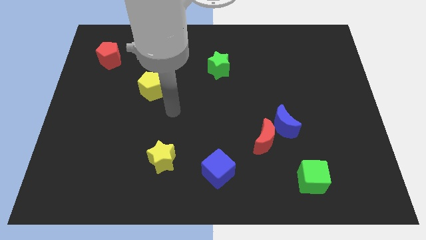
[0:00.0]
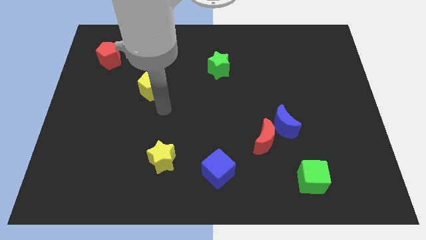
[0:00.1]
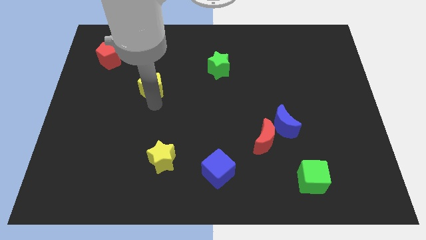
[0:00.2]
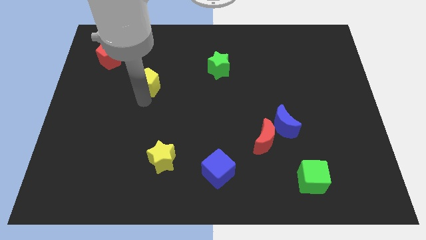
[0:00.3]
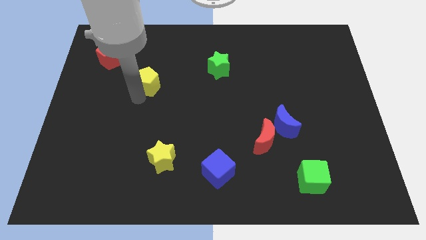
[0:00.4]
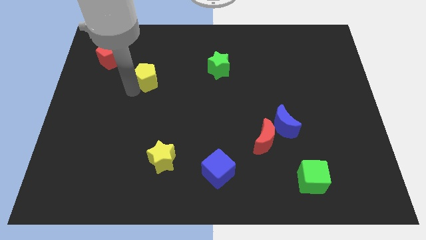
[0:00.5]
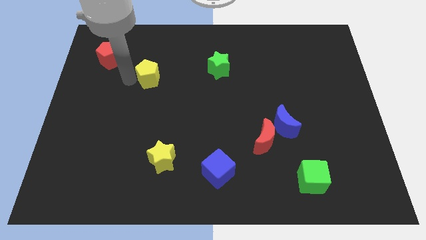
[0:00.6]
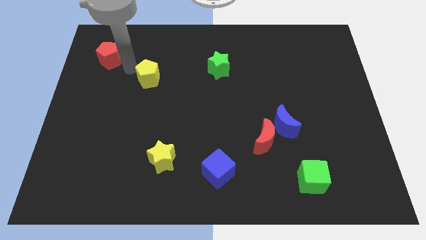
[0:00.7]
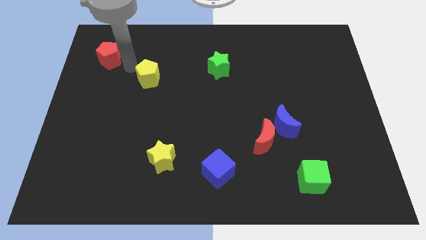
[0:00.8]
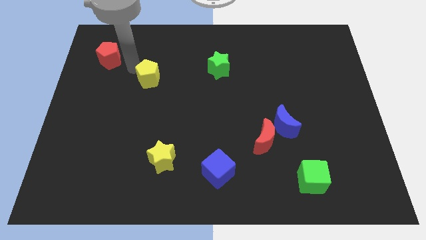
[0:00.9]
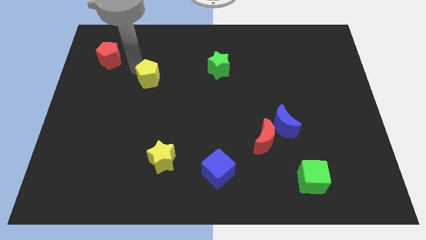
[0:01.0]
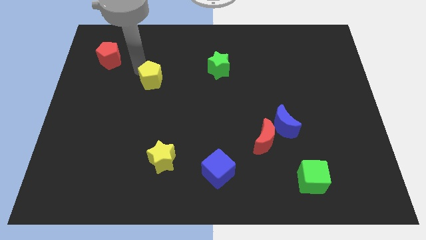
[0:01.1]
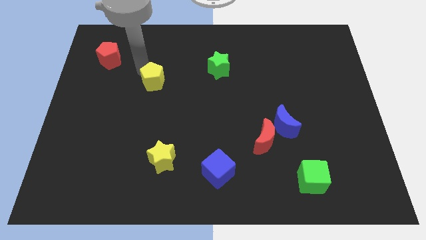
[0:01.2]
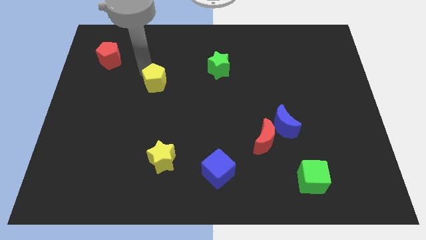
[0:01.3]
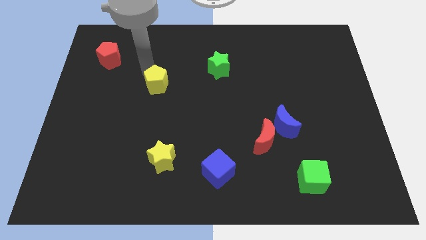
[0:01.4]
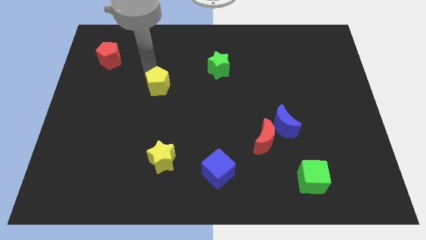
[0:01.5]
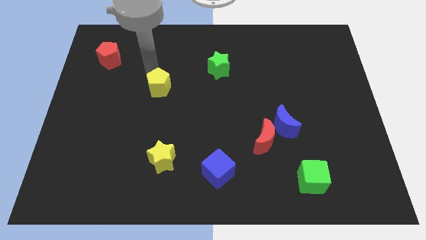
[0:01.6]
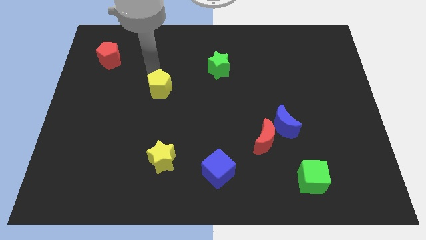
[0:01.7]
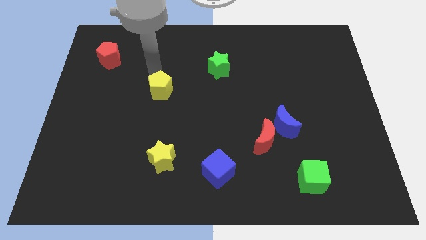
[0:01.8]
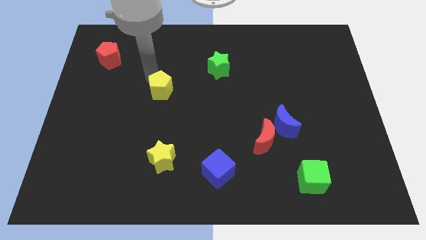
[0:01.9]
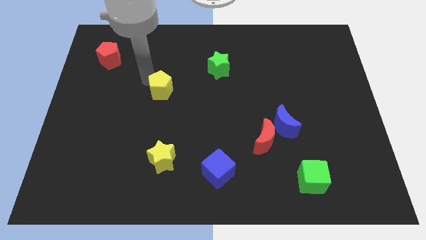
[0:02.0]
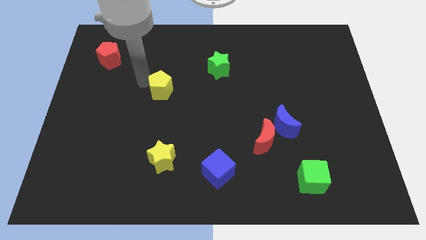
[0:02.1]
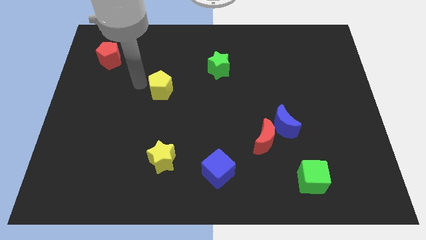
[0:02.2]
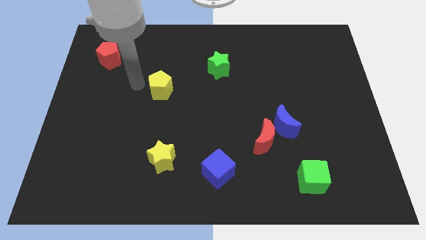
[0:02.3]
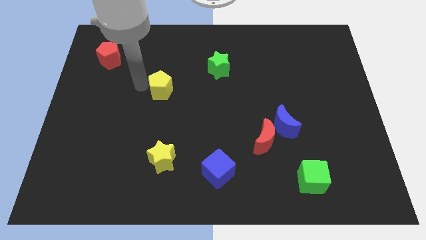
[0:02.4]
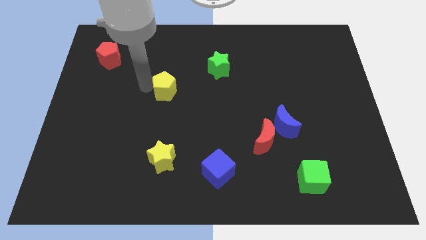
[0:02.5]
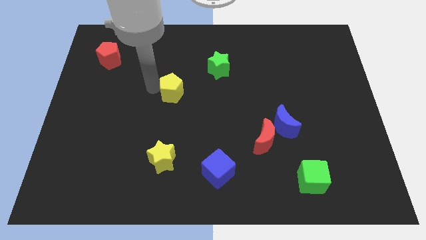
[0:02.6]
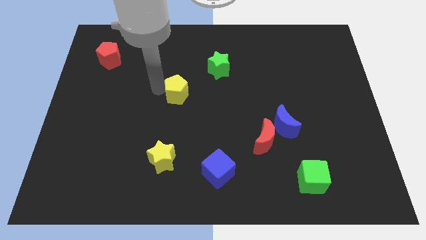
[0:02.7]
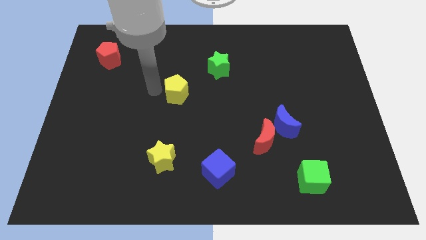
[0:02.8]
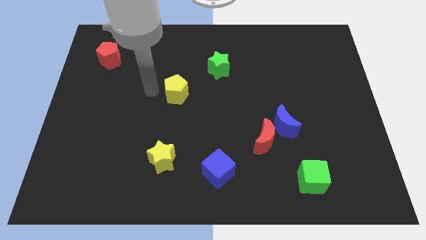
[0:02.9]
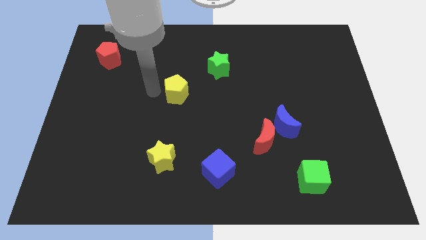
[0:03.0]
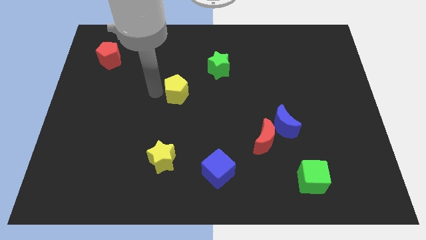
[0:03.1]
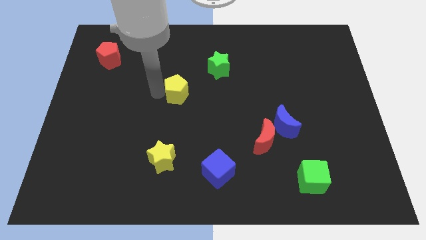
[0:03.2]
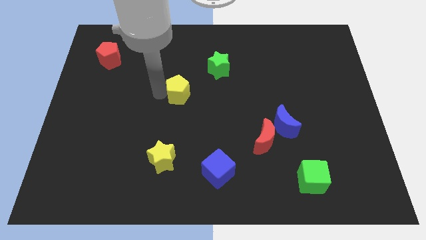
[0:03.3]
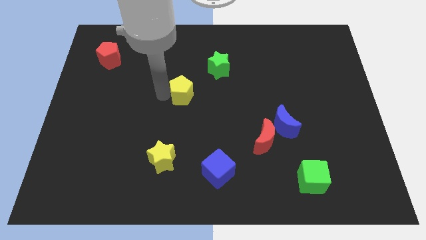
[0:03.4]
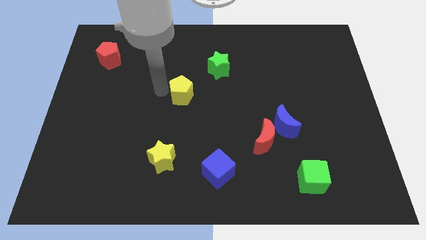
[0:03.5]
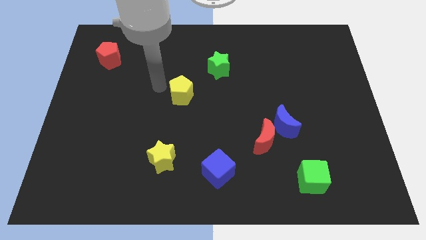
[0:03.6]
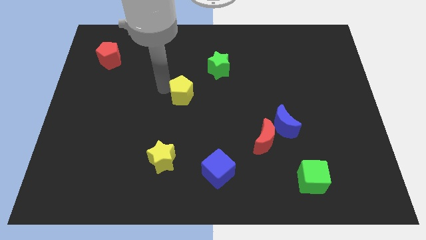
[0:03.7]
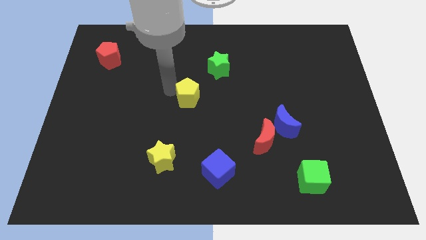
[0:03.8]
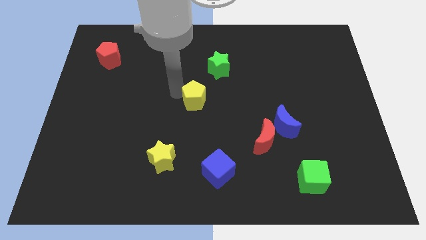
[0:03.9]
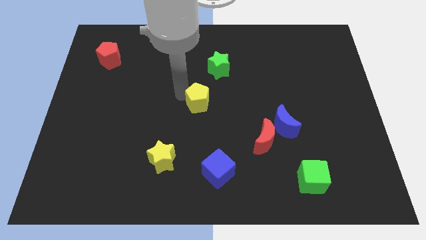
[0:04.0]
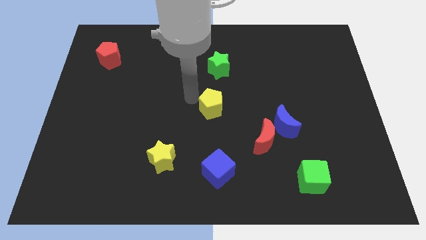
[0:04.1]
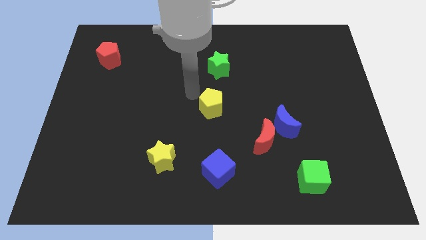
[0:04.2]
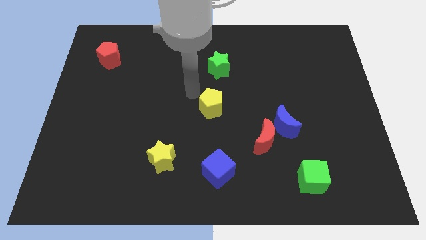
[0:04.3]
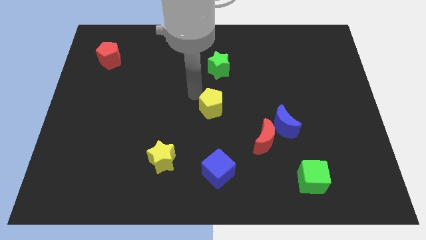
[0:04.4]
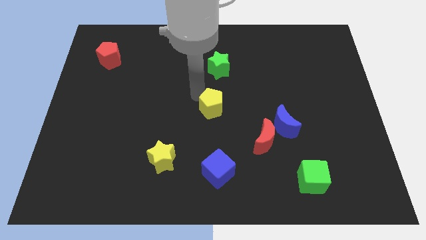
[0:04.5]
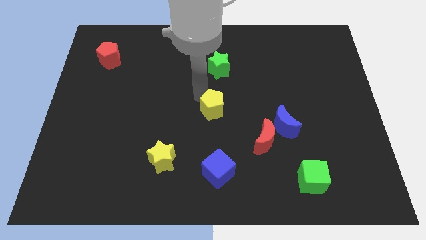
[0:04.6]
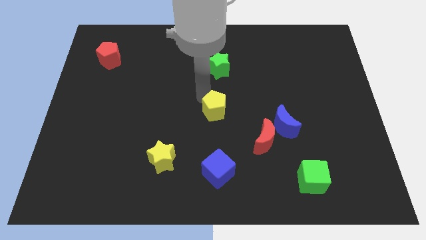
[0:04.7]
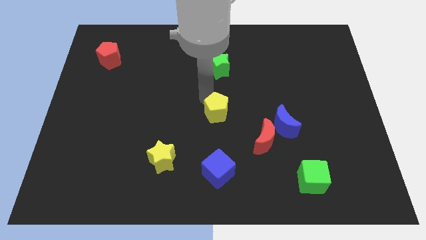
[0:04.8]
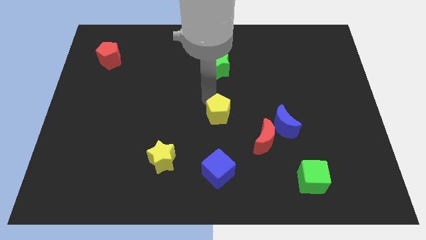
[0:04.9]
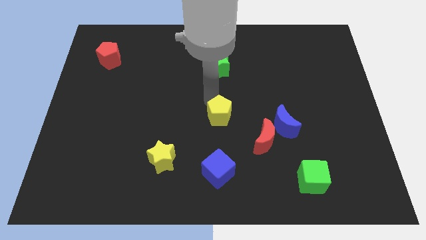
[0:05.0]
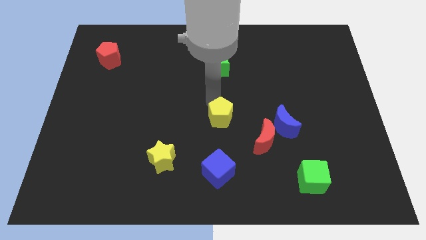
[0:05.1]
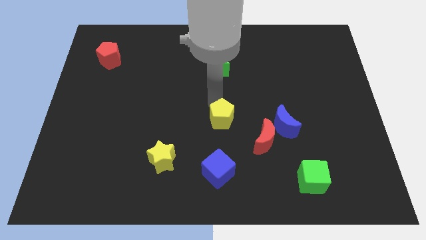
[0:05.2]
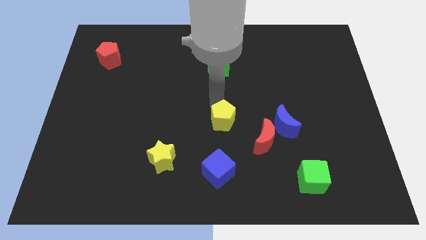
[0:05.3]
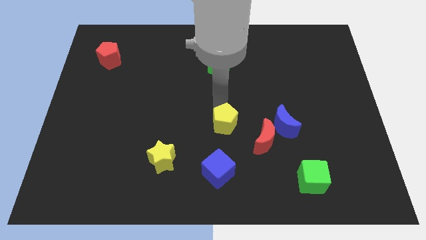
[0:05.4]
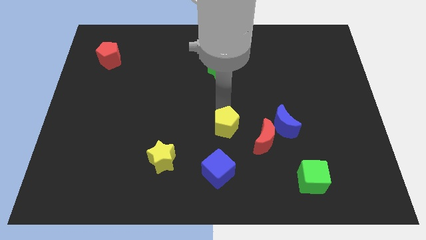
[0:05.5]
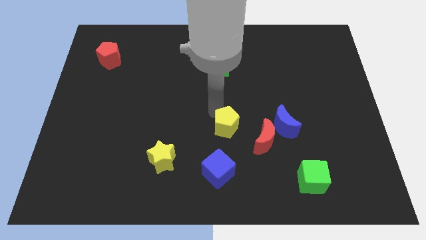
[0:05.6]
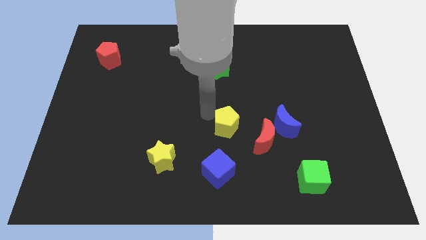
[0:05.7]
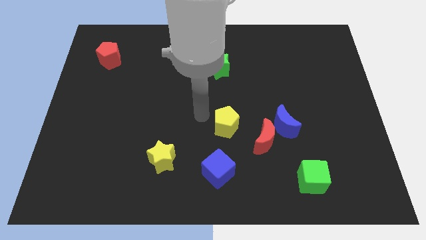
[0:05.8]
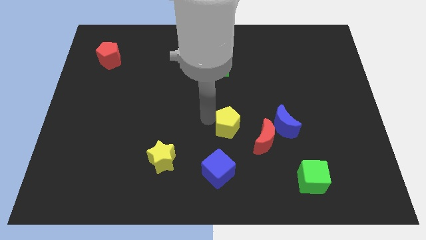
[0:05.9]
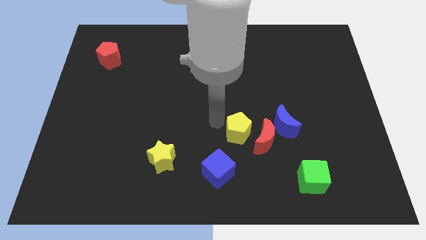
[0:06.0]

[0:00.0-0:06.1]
put the yellow pentagon next to the red moon

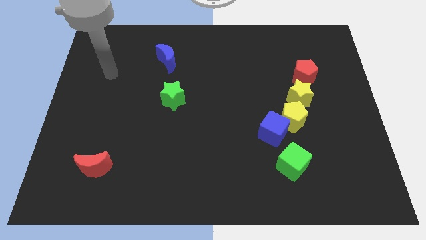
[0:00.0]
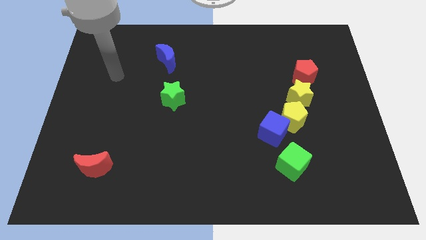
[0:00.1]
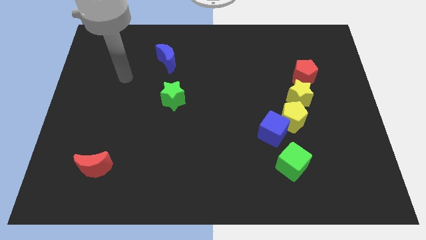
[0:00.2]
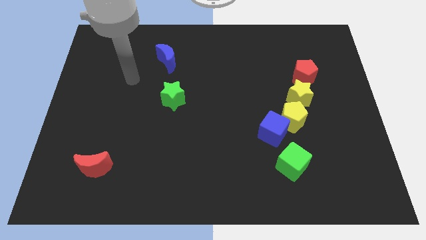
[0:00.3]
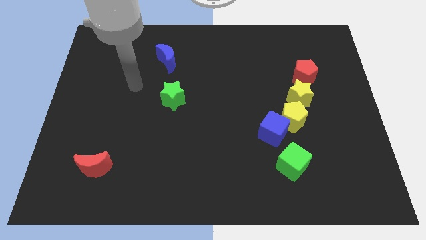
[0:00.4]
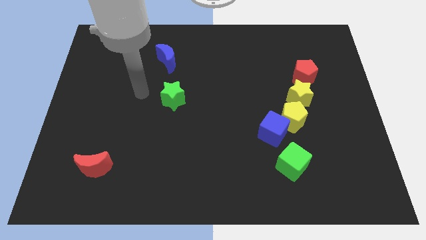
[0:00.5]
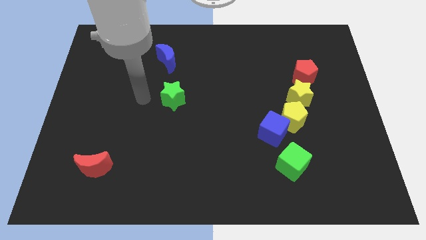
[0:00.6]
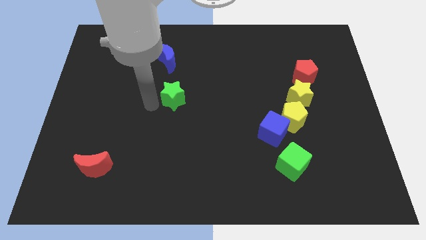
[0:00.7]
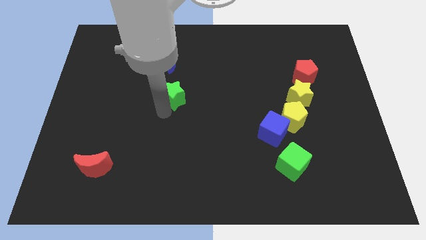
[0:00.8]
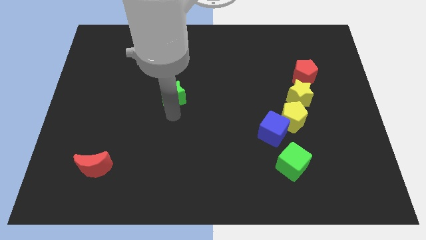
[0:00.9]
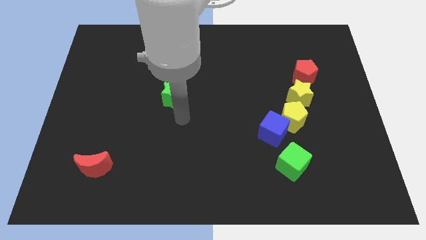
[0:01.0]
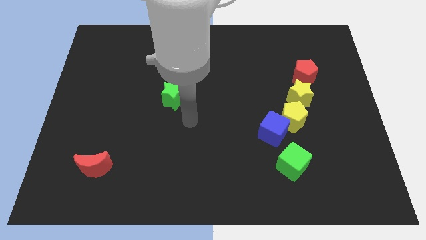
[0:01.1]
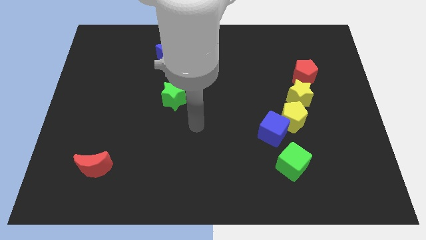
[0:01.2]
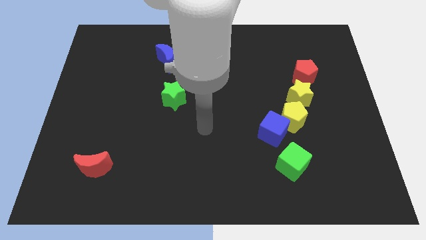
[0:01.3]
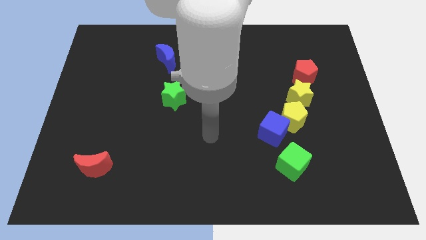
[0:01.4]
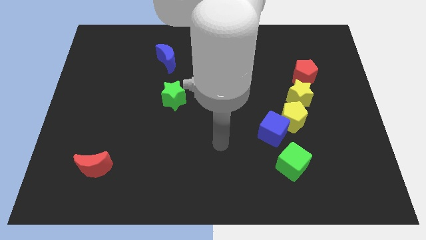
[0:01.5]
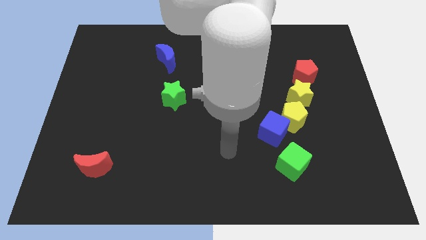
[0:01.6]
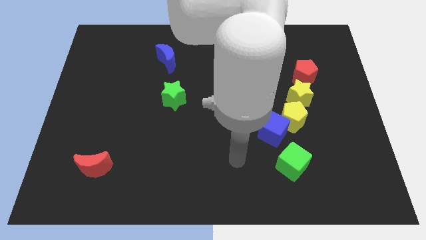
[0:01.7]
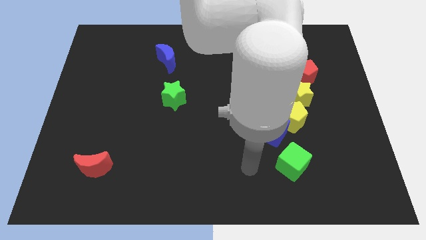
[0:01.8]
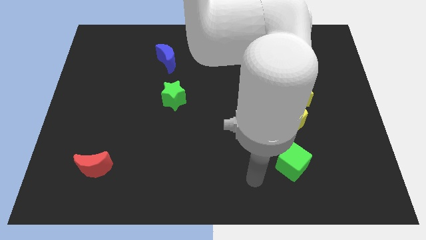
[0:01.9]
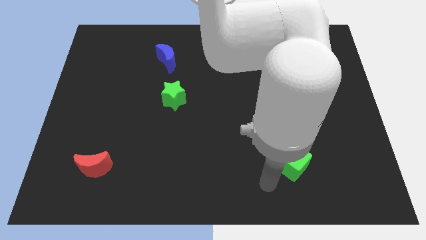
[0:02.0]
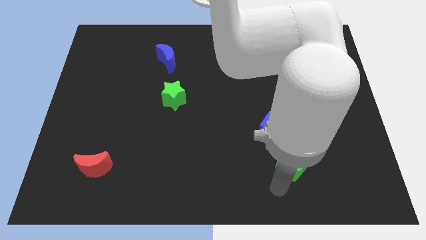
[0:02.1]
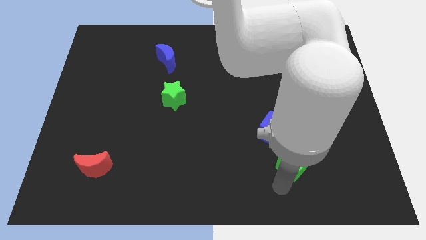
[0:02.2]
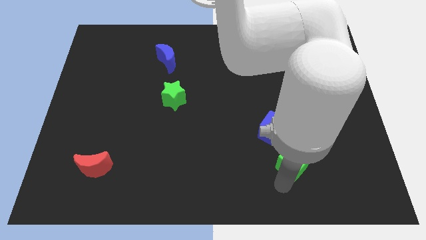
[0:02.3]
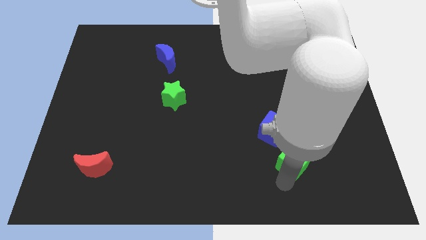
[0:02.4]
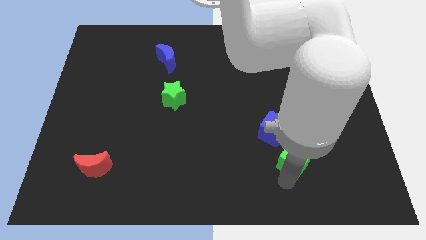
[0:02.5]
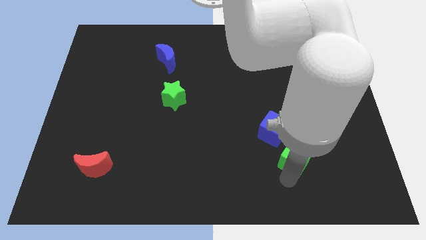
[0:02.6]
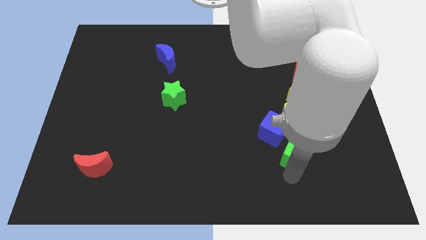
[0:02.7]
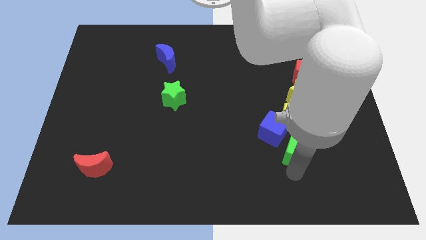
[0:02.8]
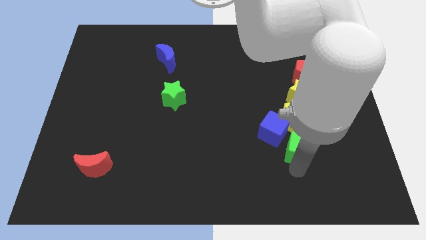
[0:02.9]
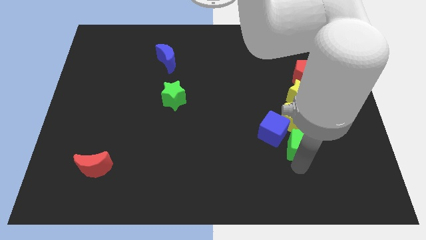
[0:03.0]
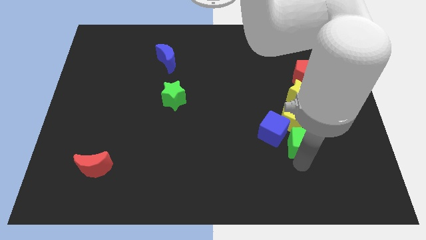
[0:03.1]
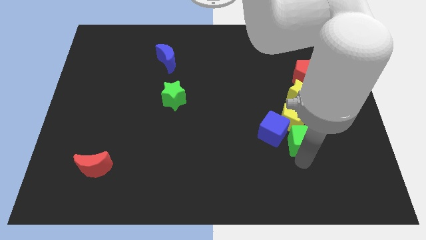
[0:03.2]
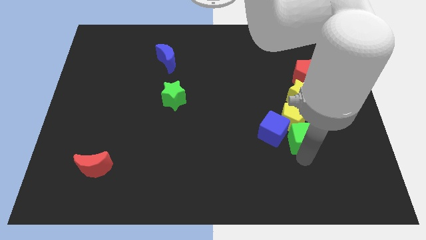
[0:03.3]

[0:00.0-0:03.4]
move the green cube next to the yellow pentagon
